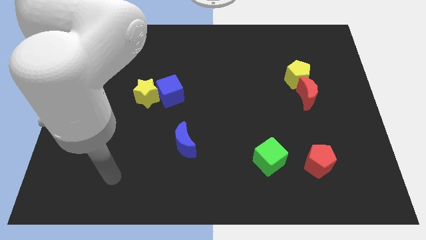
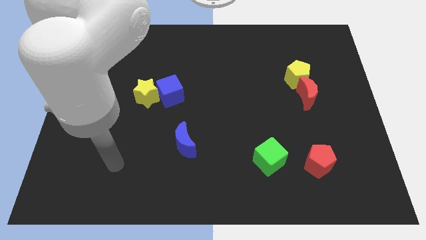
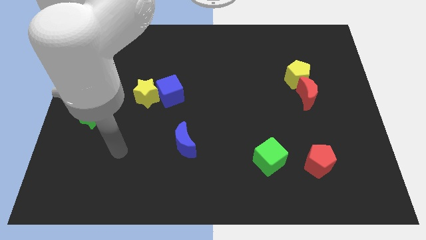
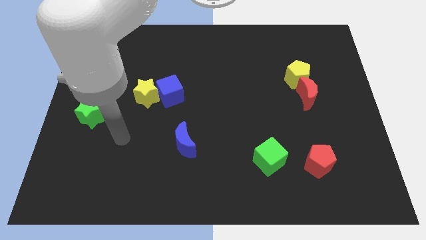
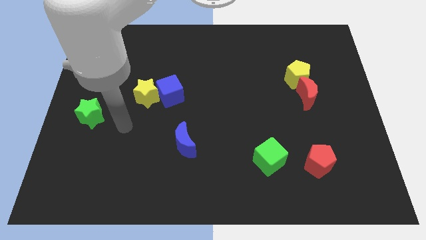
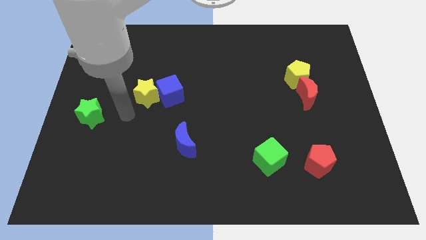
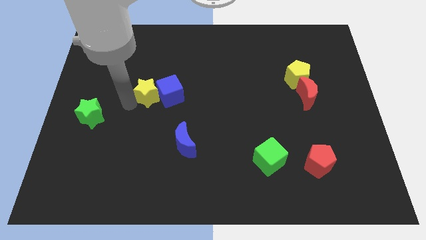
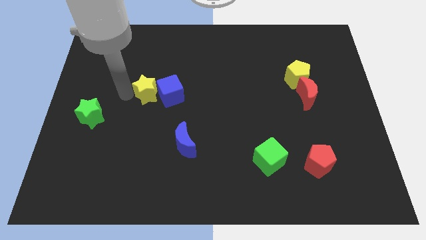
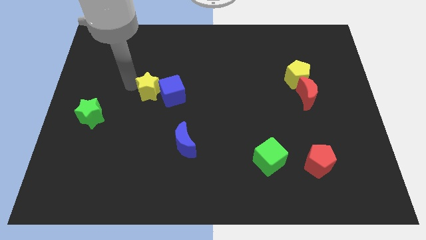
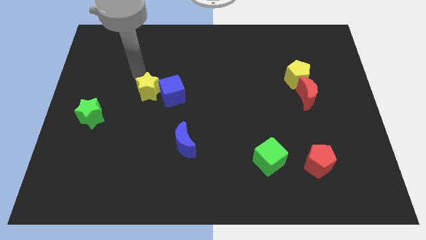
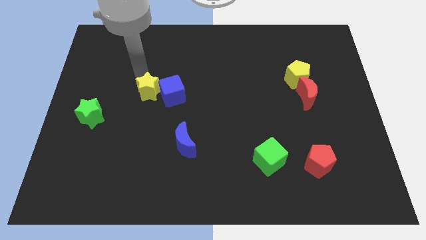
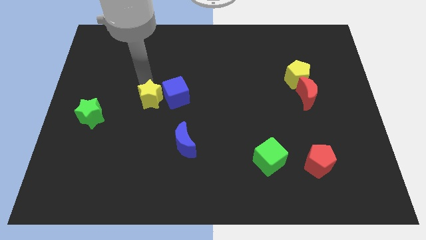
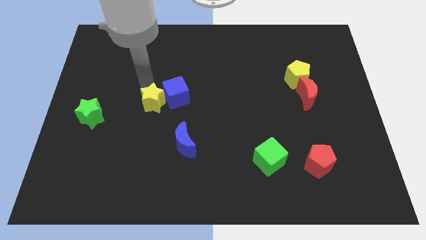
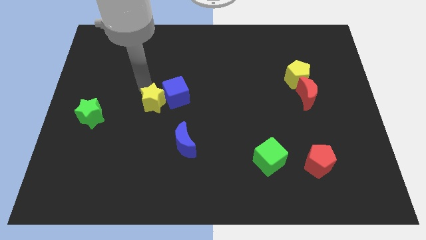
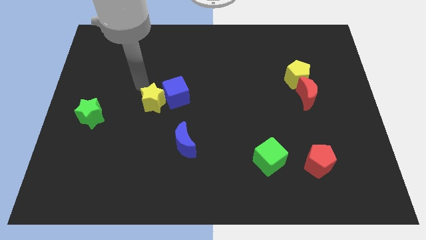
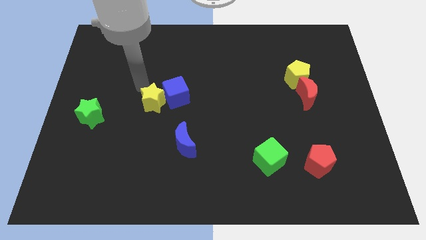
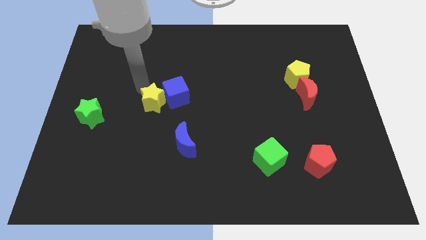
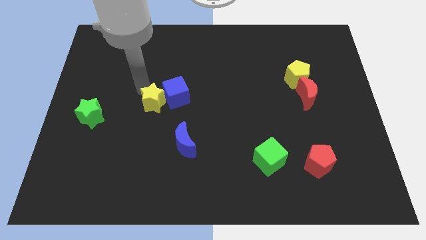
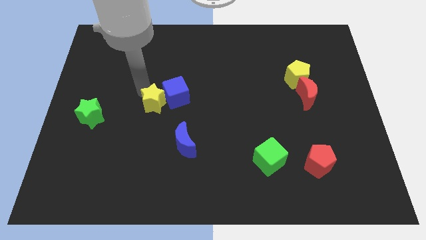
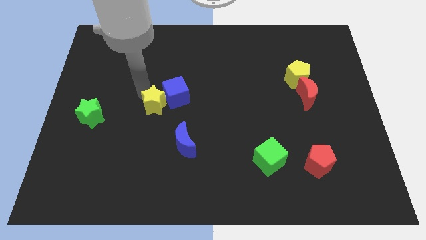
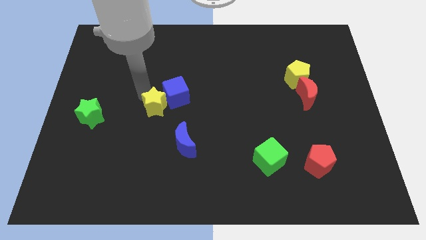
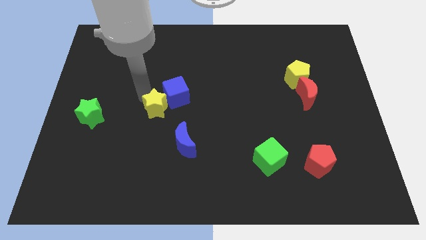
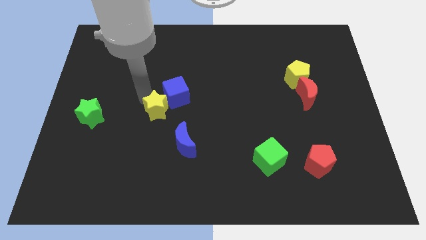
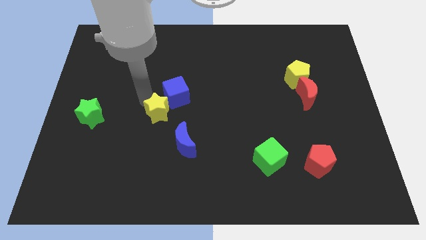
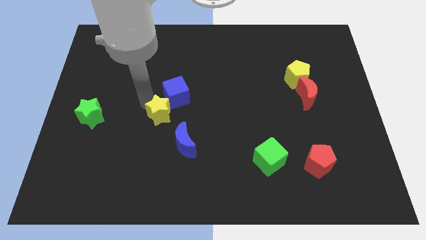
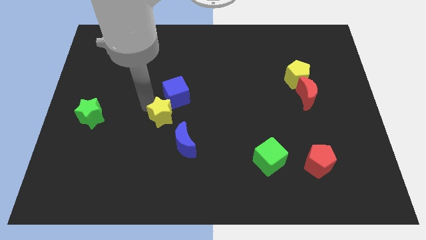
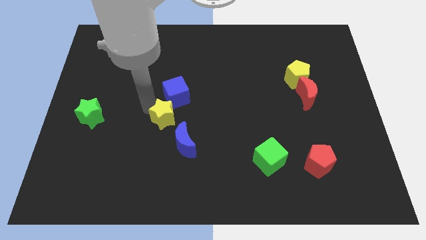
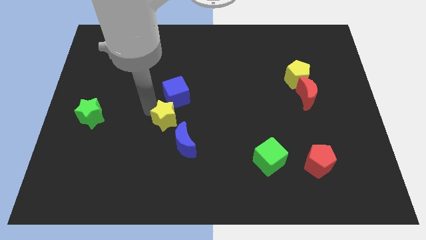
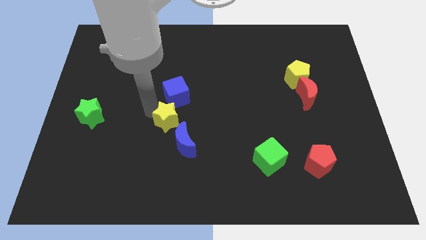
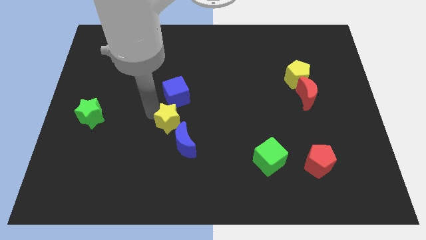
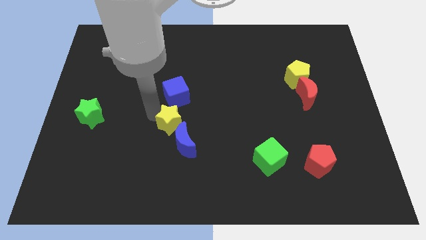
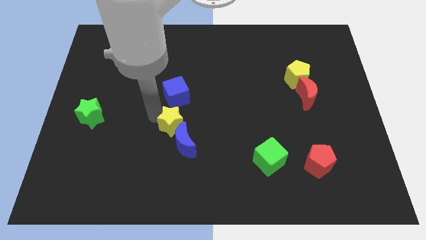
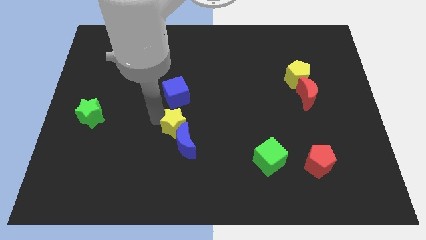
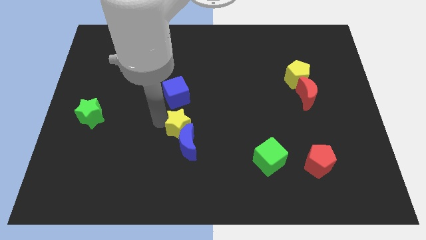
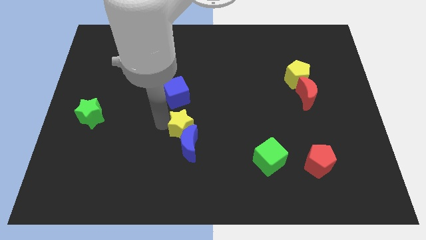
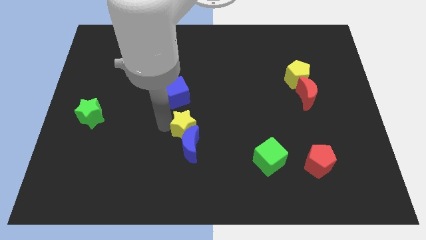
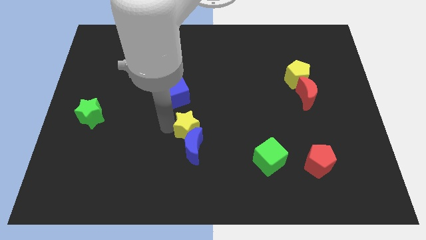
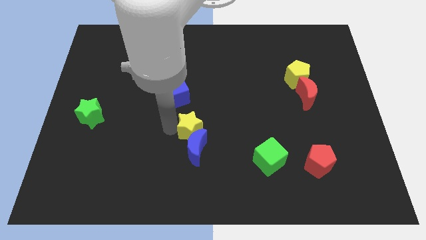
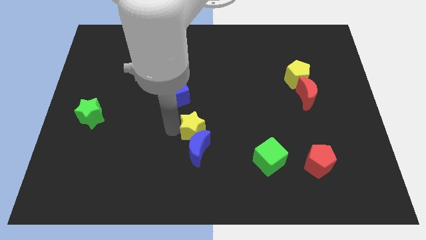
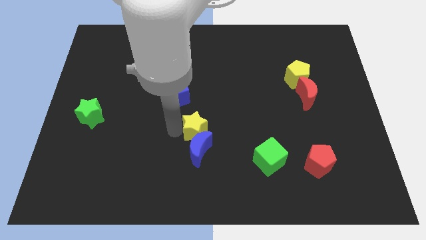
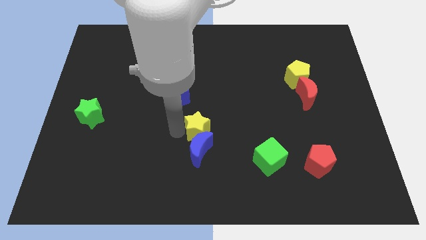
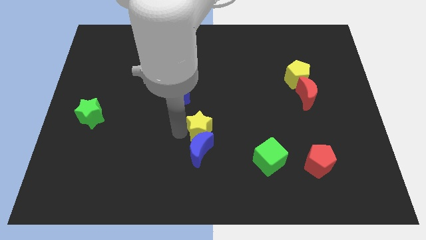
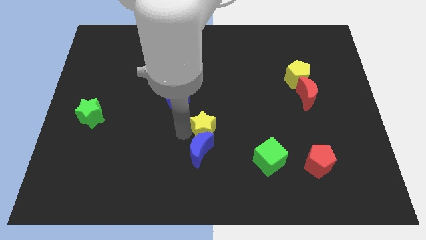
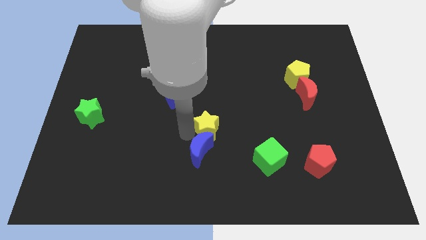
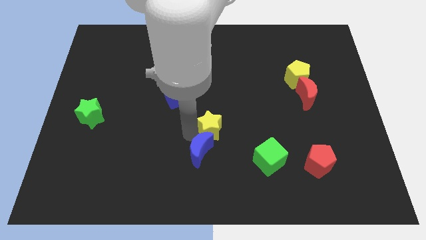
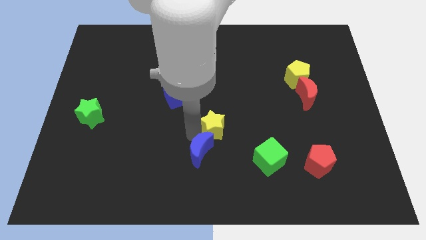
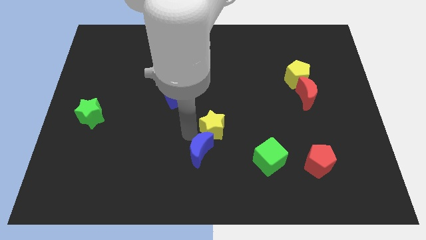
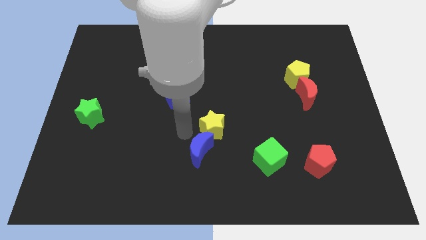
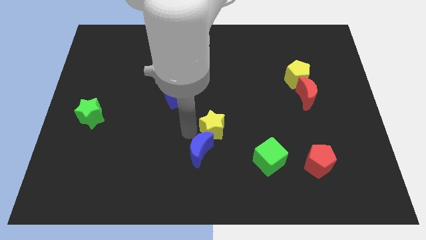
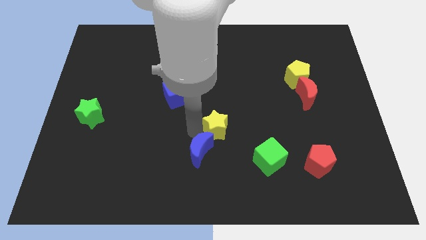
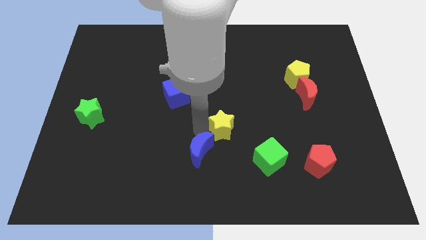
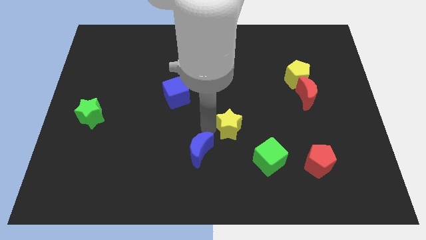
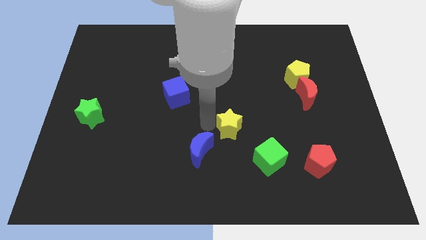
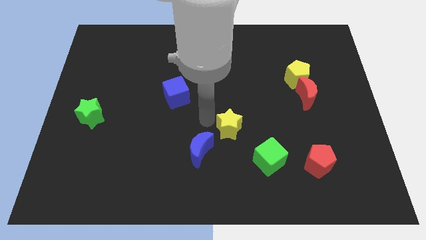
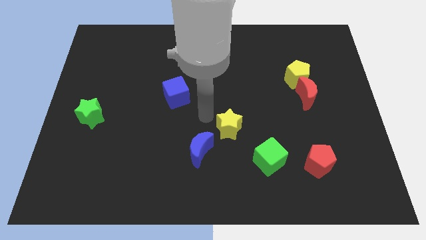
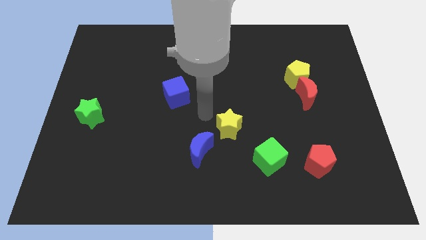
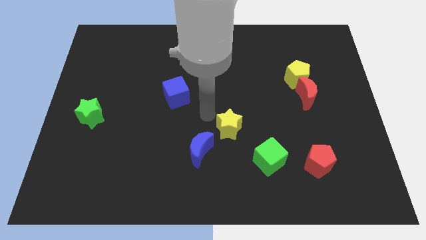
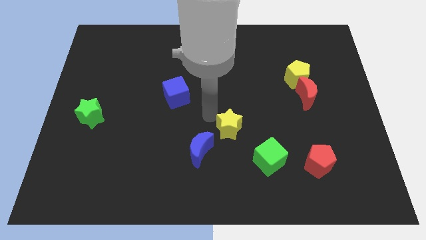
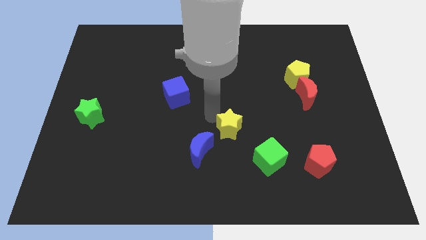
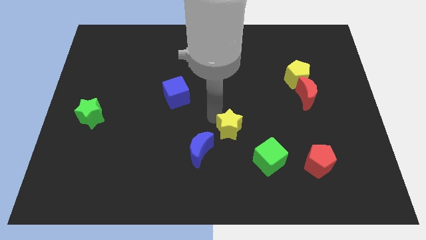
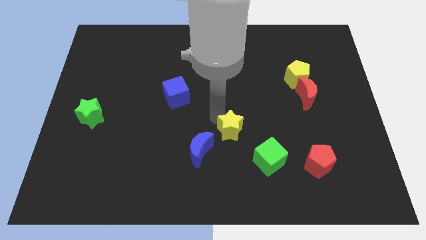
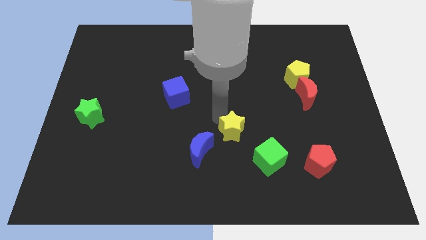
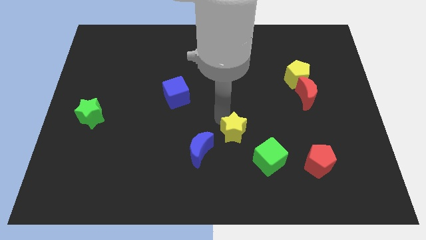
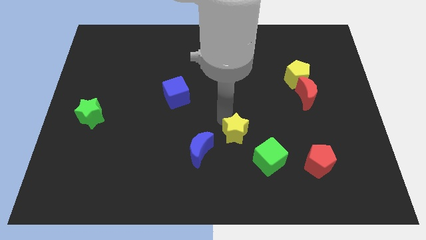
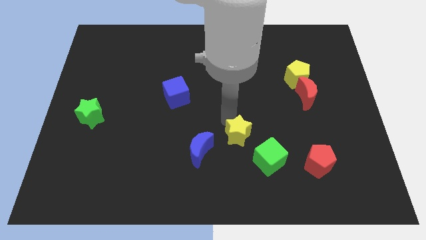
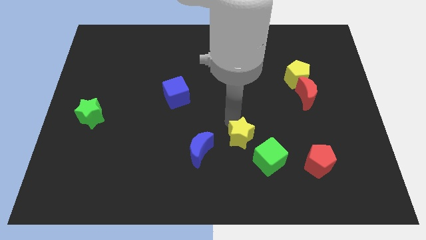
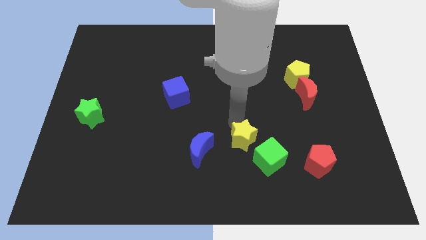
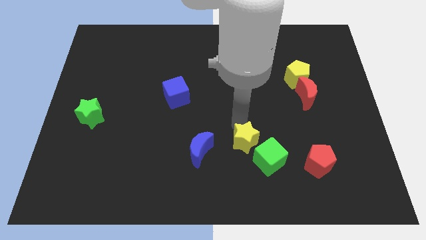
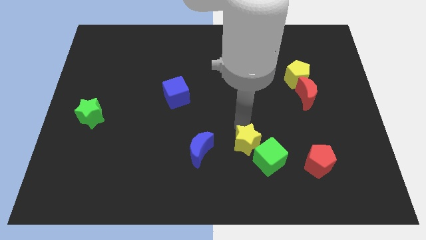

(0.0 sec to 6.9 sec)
push the yellow star to the green cube

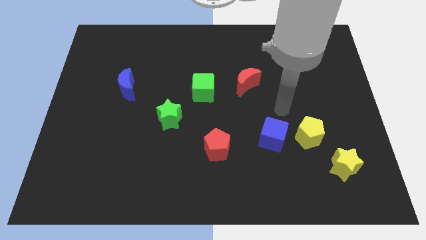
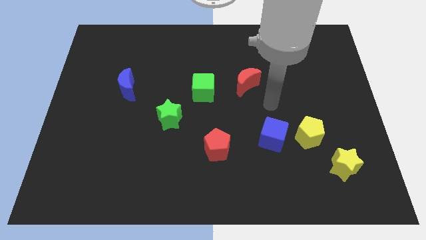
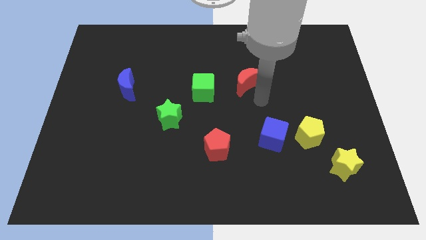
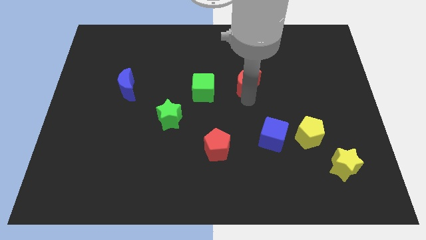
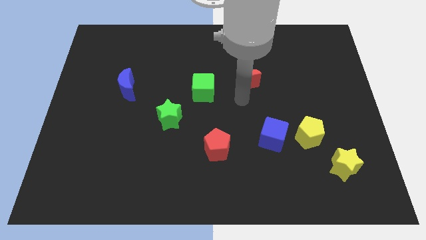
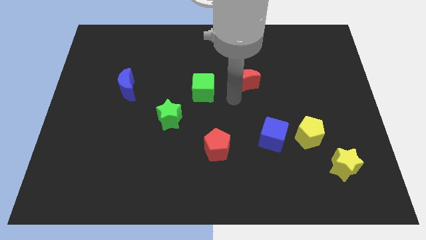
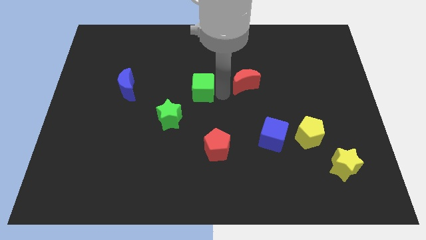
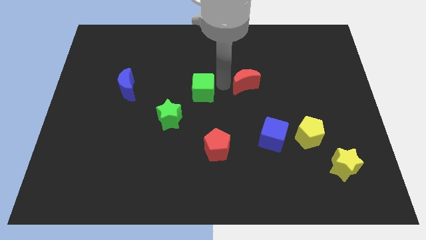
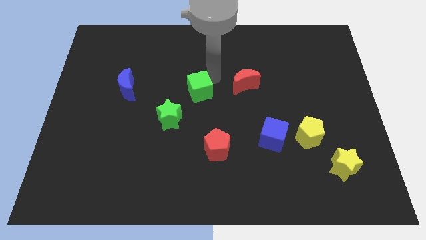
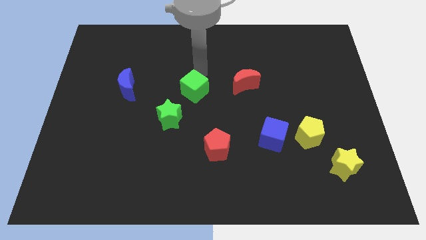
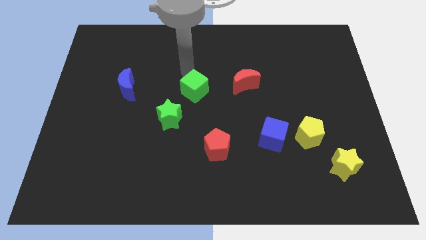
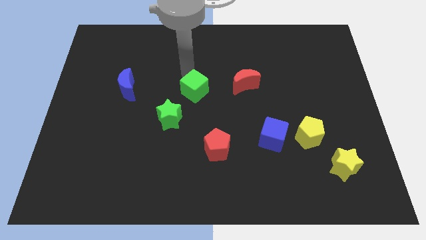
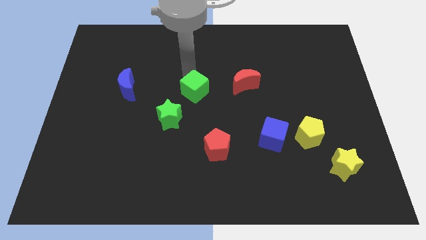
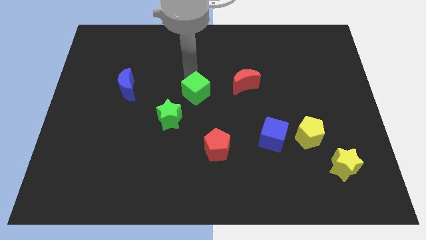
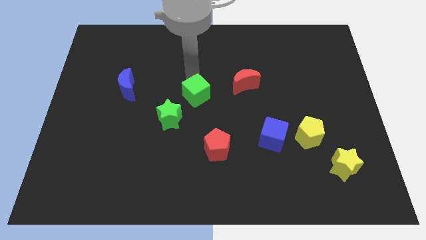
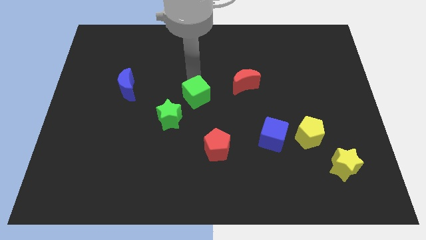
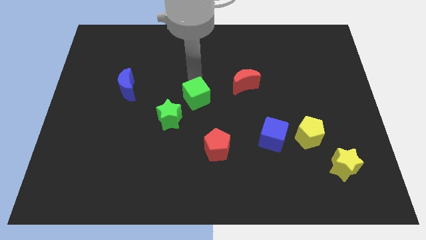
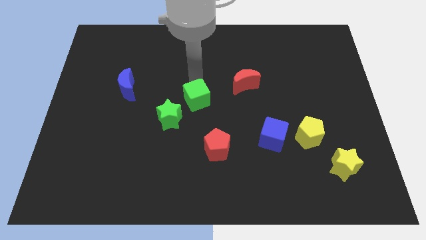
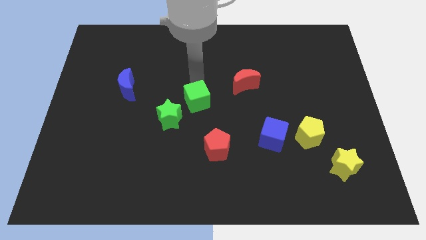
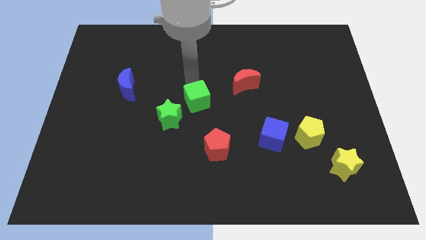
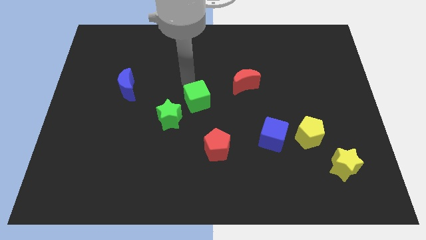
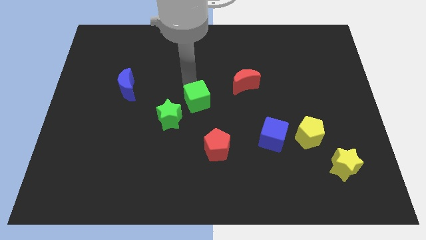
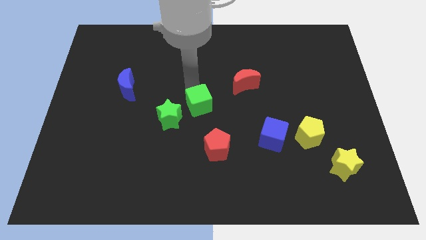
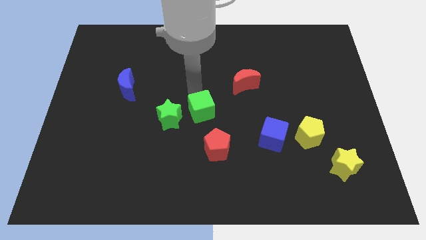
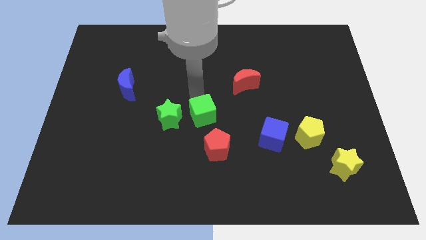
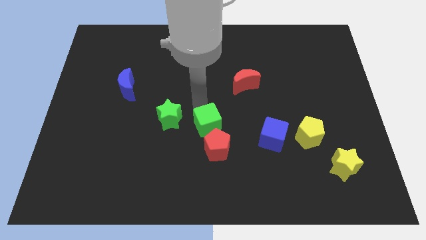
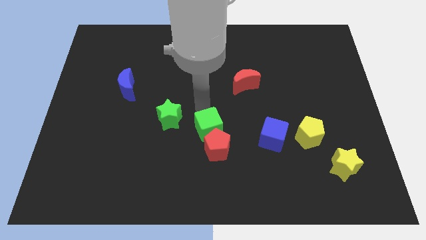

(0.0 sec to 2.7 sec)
put the green cube close to the red pentagon
